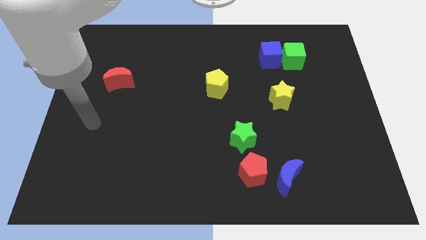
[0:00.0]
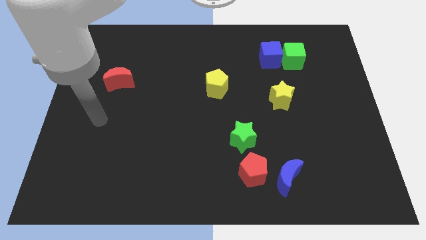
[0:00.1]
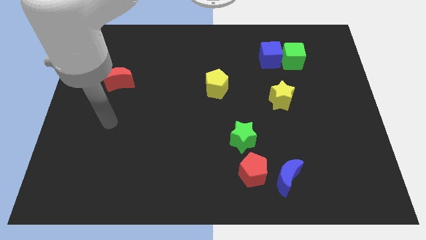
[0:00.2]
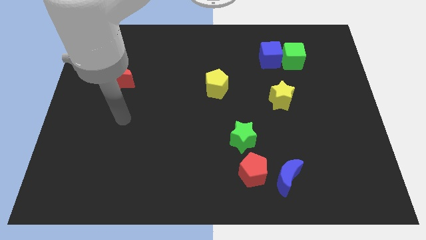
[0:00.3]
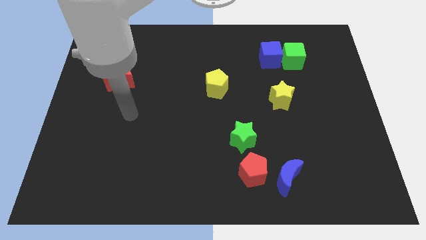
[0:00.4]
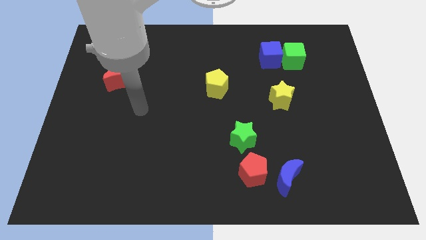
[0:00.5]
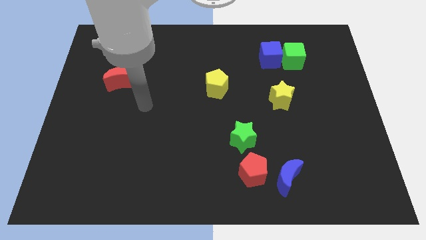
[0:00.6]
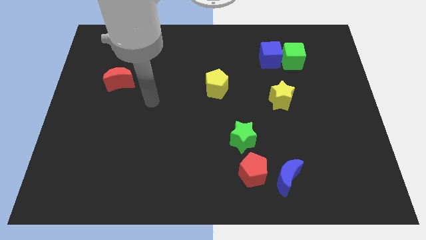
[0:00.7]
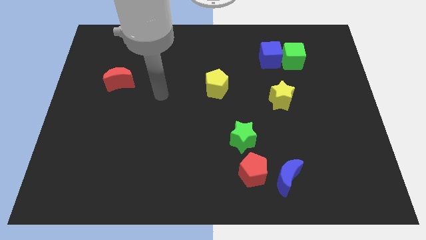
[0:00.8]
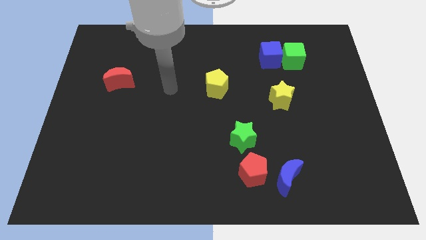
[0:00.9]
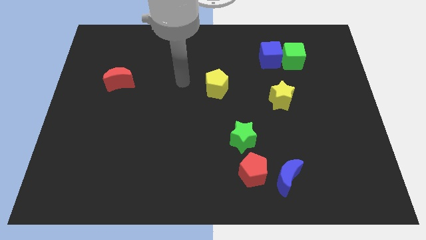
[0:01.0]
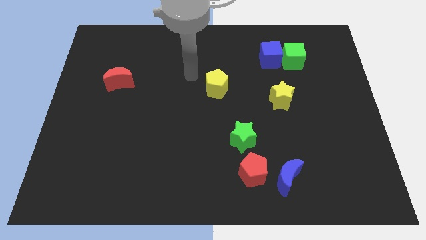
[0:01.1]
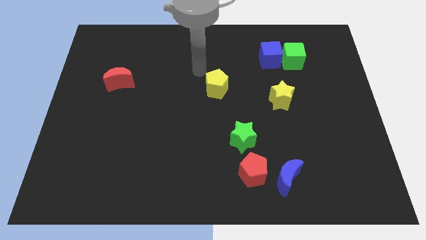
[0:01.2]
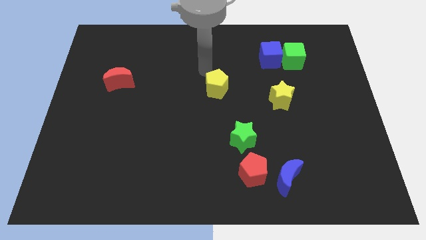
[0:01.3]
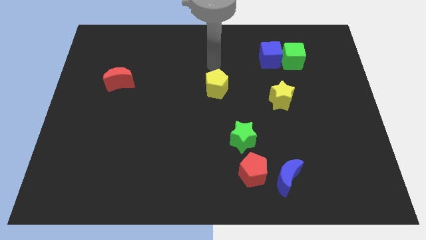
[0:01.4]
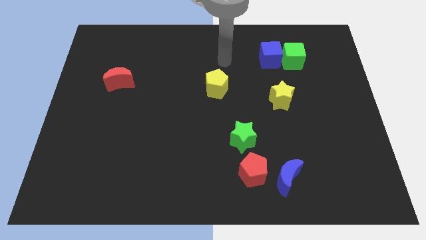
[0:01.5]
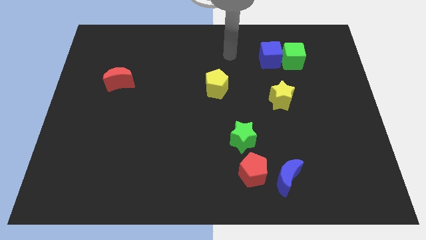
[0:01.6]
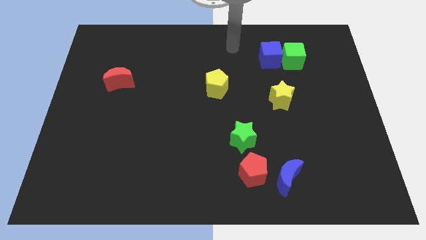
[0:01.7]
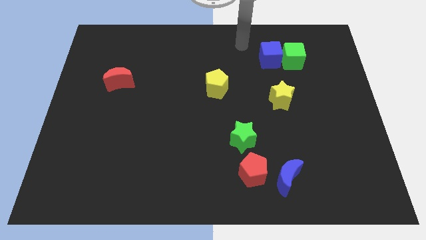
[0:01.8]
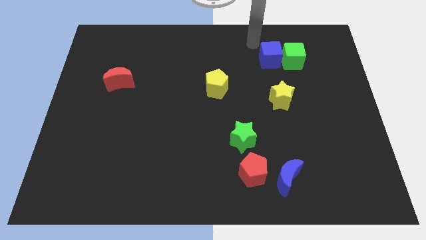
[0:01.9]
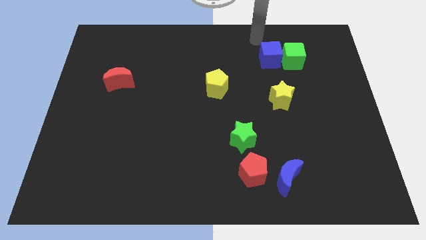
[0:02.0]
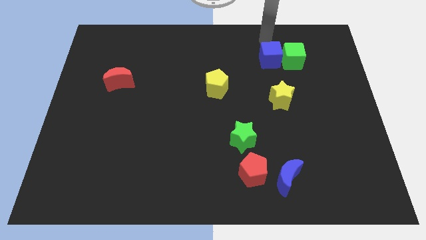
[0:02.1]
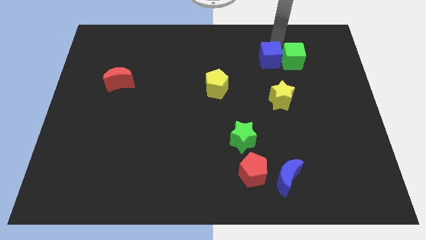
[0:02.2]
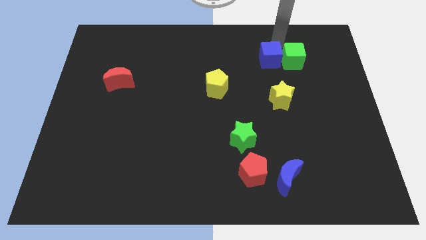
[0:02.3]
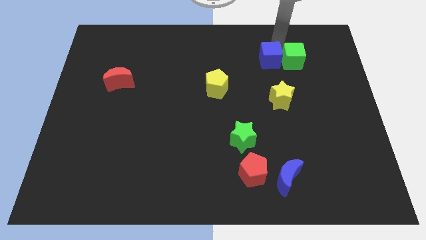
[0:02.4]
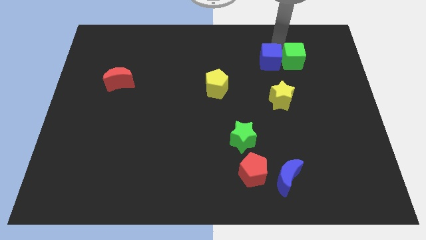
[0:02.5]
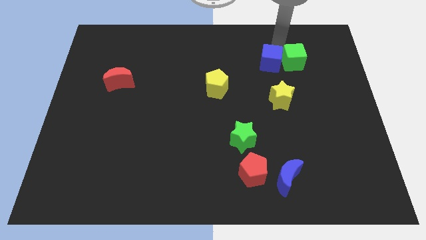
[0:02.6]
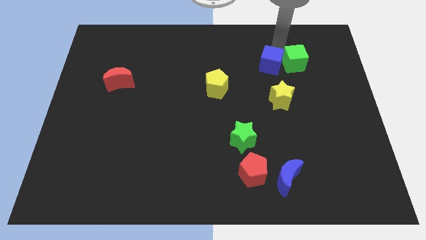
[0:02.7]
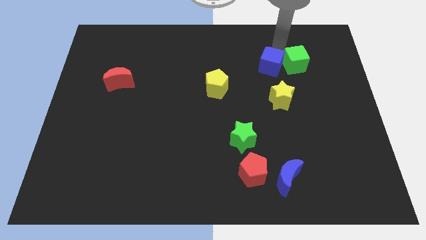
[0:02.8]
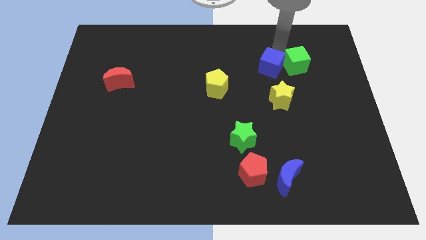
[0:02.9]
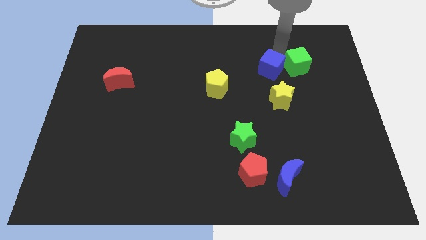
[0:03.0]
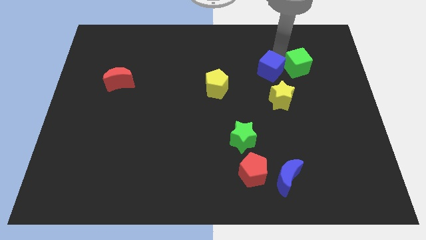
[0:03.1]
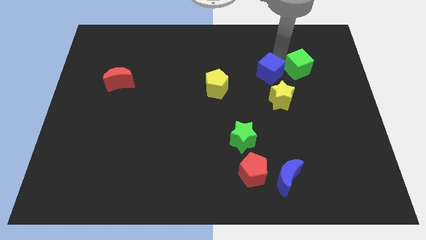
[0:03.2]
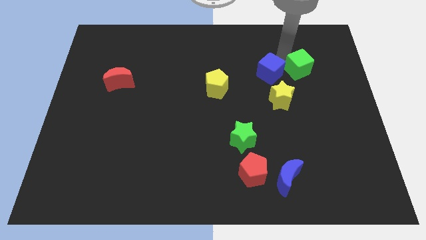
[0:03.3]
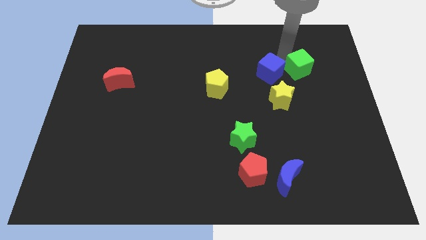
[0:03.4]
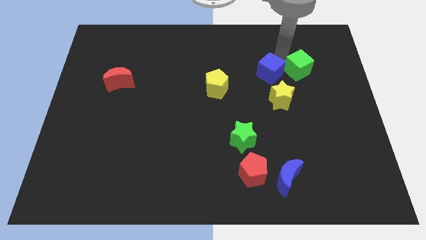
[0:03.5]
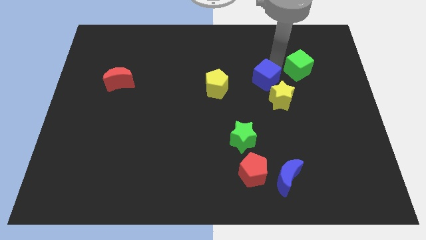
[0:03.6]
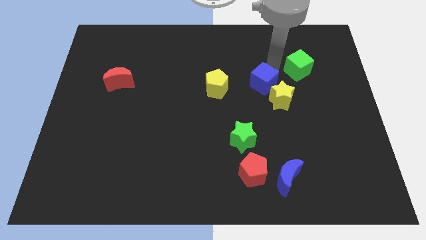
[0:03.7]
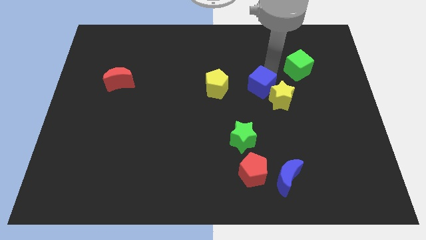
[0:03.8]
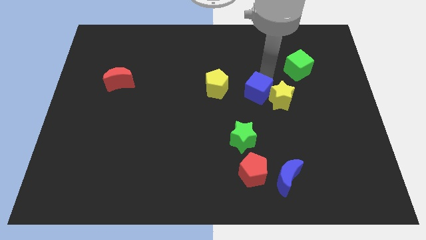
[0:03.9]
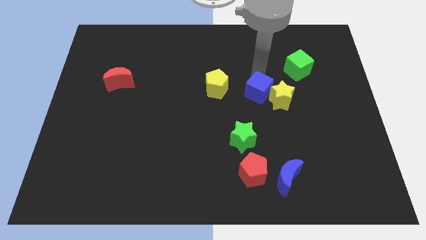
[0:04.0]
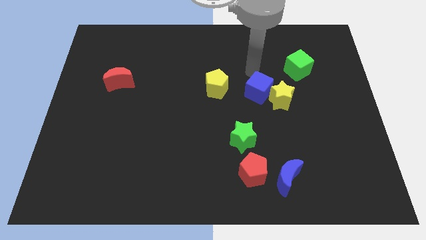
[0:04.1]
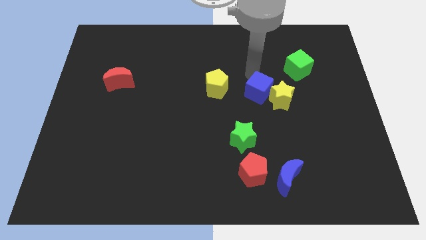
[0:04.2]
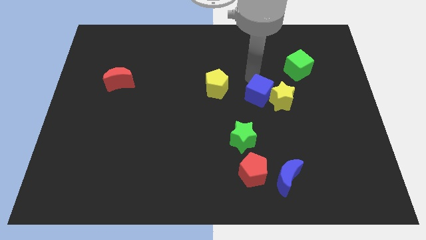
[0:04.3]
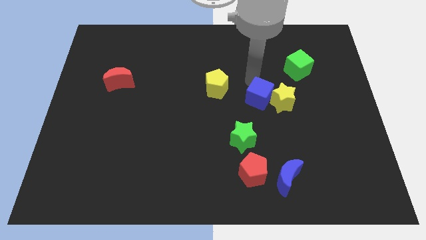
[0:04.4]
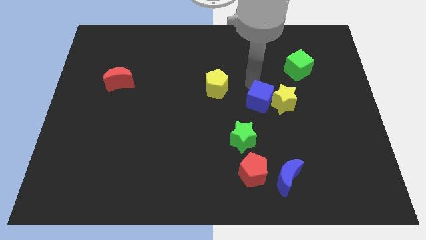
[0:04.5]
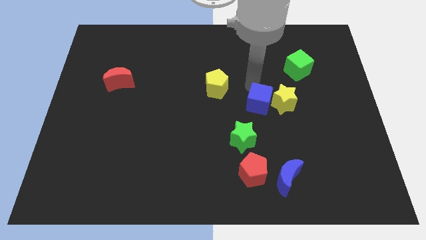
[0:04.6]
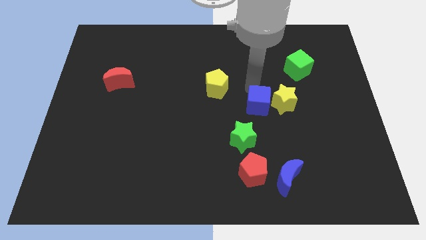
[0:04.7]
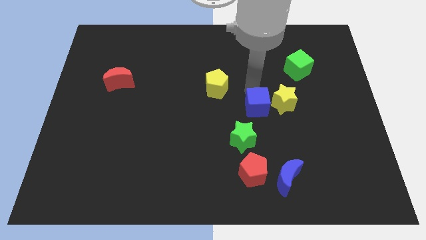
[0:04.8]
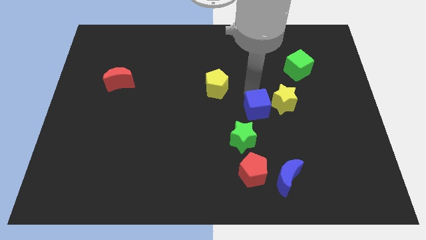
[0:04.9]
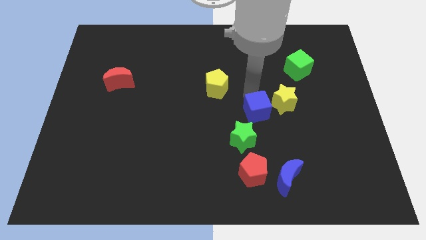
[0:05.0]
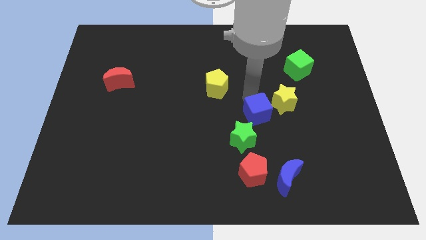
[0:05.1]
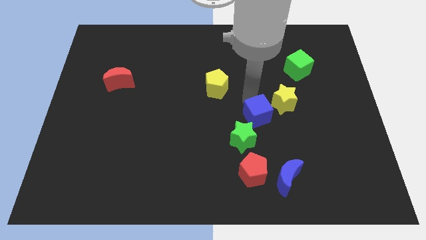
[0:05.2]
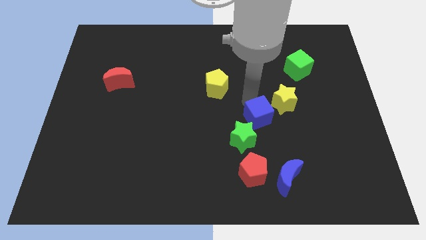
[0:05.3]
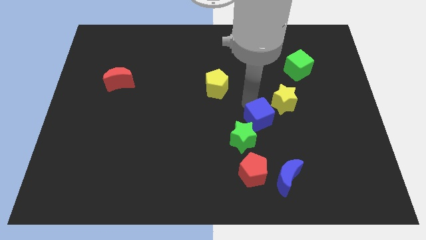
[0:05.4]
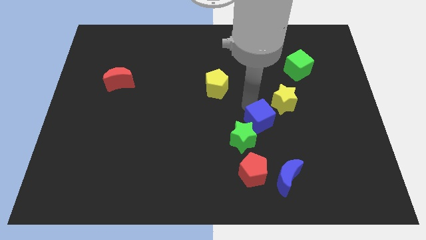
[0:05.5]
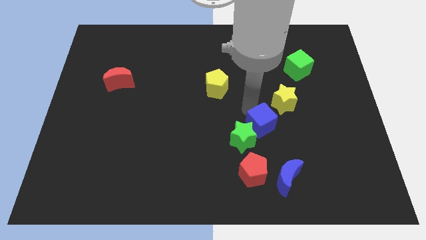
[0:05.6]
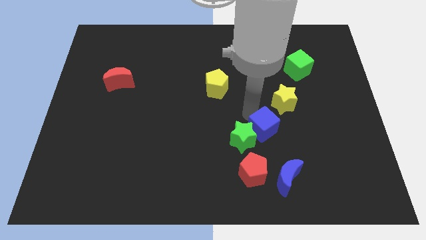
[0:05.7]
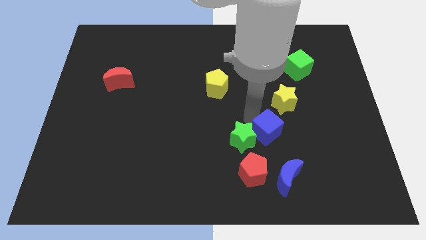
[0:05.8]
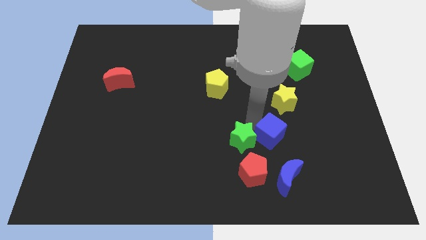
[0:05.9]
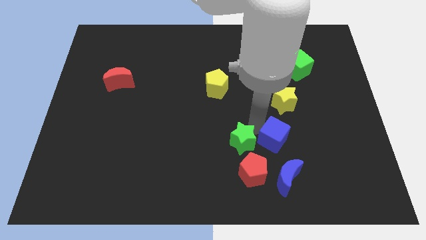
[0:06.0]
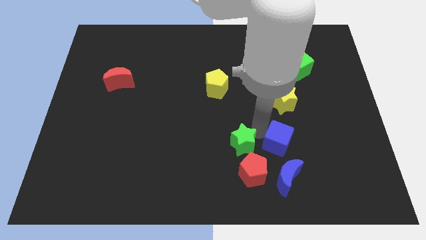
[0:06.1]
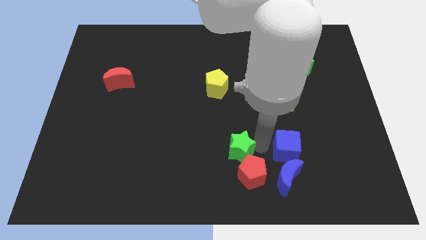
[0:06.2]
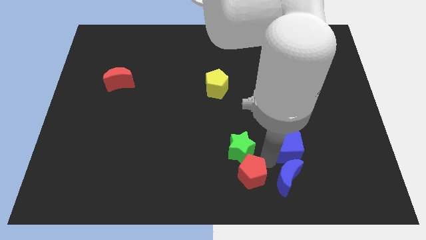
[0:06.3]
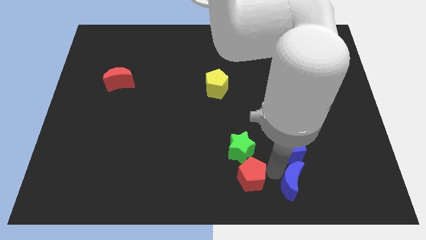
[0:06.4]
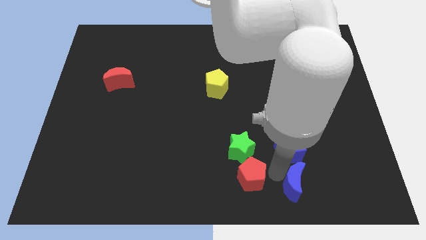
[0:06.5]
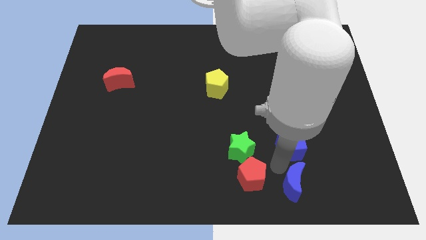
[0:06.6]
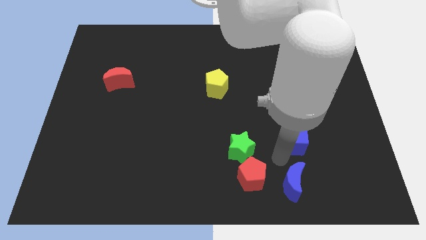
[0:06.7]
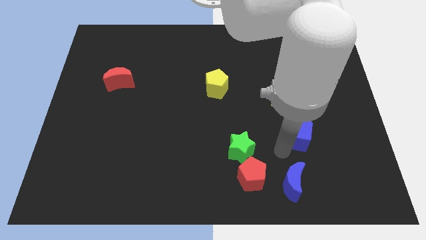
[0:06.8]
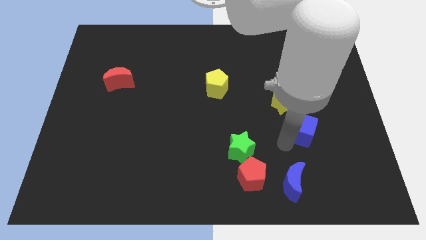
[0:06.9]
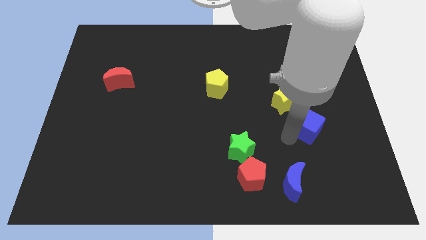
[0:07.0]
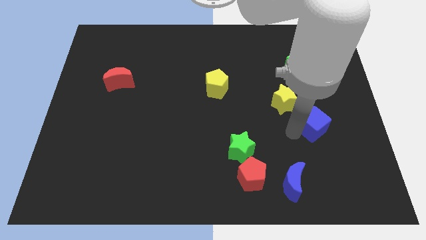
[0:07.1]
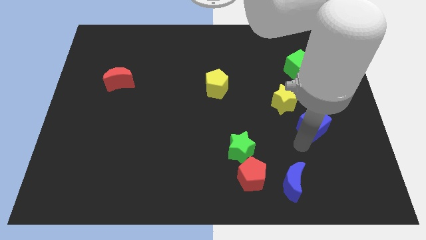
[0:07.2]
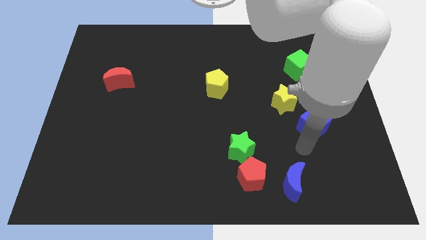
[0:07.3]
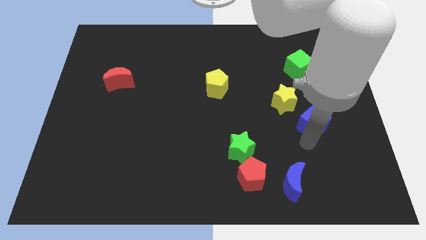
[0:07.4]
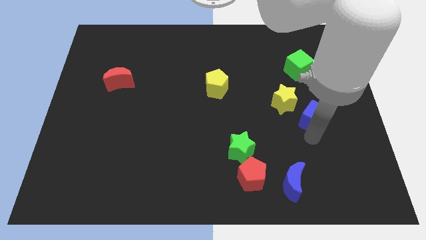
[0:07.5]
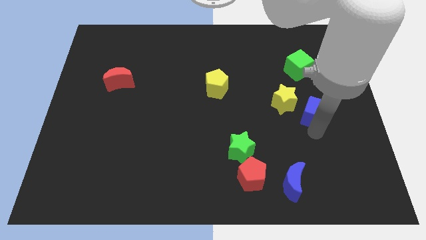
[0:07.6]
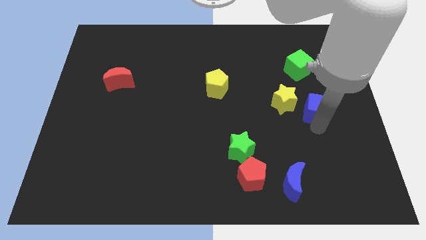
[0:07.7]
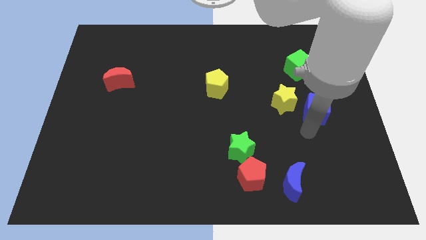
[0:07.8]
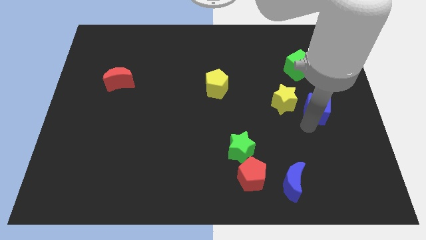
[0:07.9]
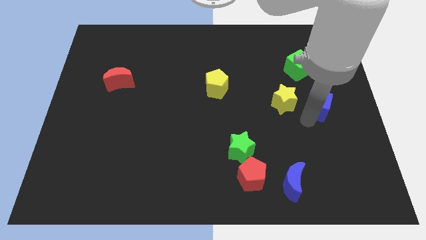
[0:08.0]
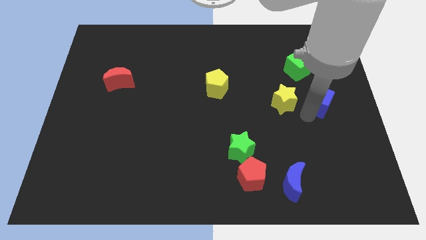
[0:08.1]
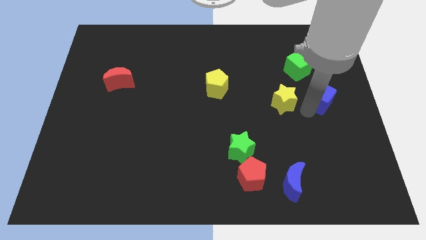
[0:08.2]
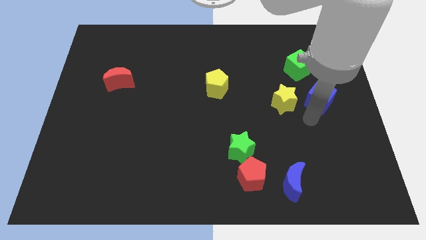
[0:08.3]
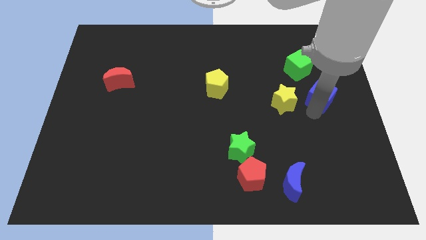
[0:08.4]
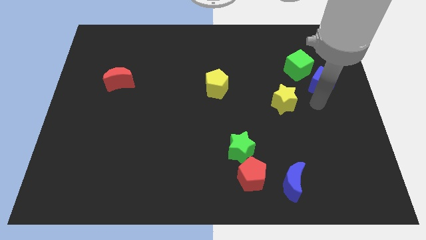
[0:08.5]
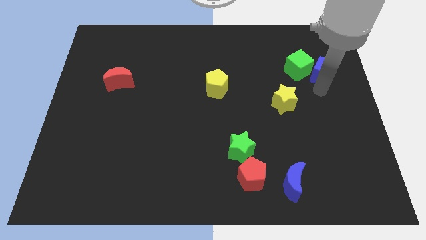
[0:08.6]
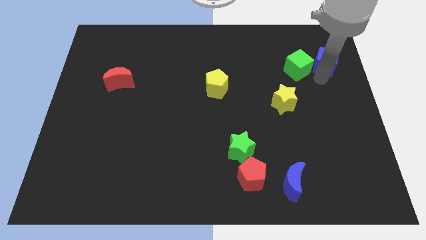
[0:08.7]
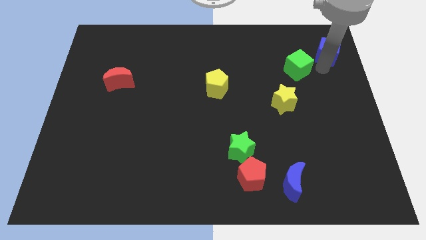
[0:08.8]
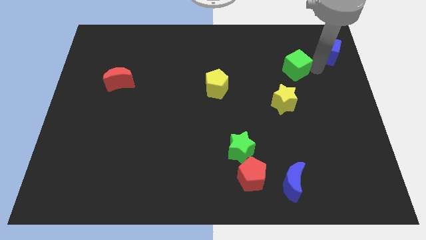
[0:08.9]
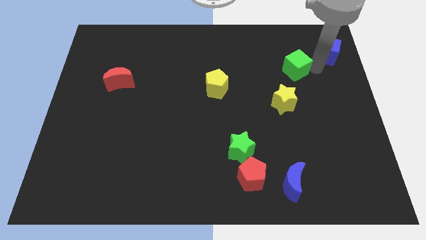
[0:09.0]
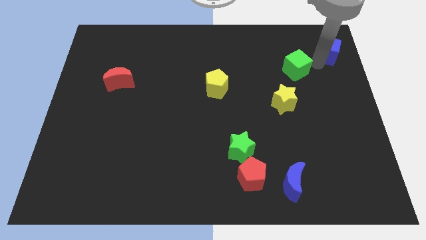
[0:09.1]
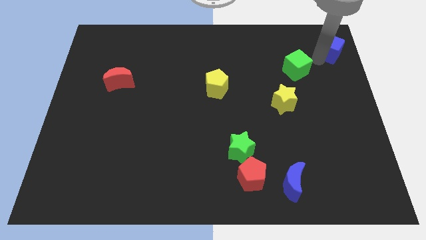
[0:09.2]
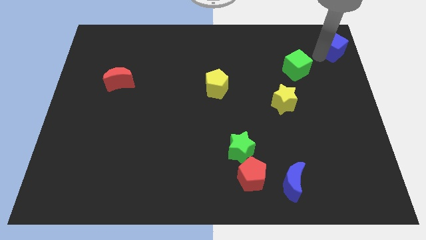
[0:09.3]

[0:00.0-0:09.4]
move the blue cube to the top right
